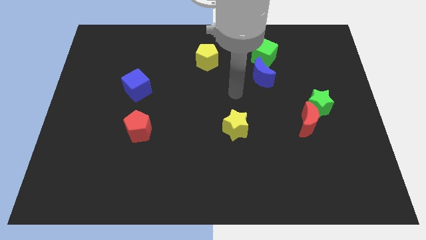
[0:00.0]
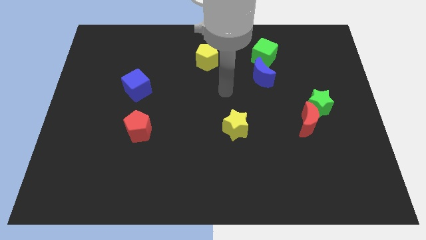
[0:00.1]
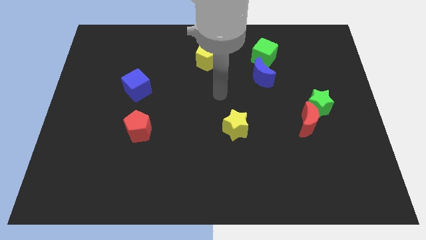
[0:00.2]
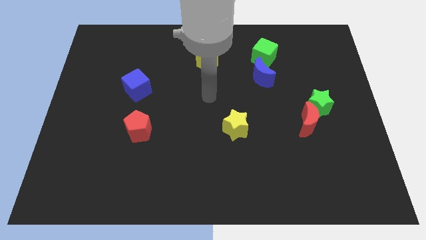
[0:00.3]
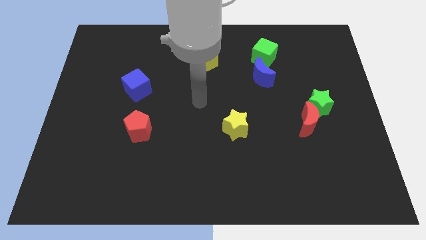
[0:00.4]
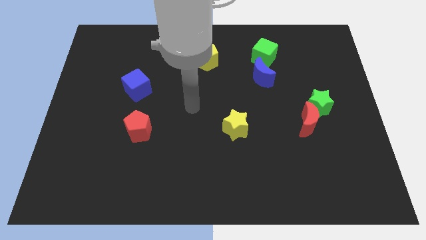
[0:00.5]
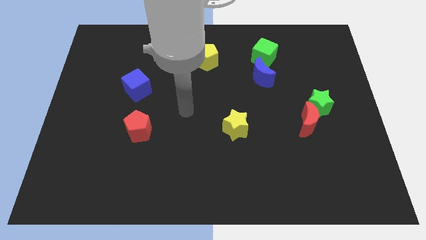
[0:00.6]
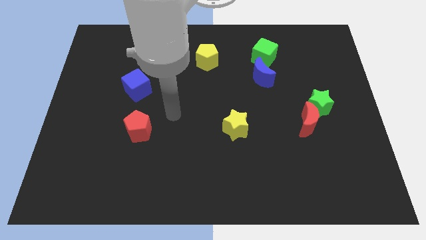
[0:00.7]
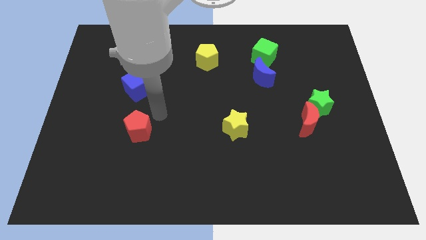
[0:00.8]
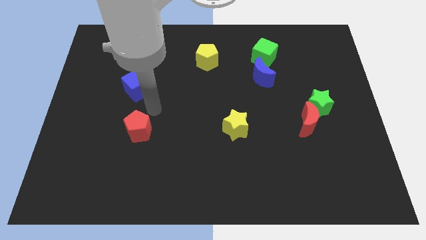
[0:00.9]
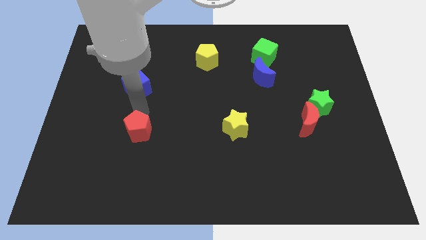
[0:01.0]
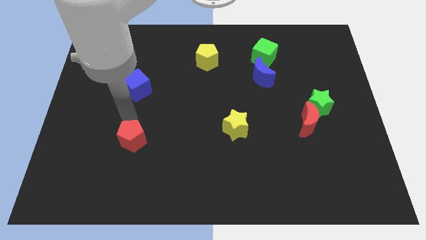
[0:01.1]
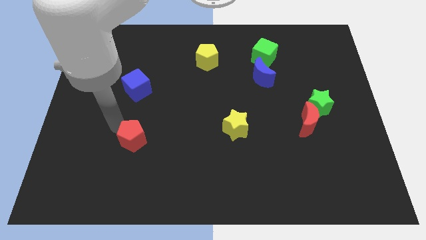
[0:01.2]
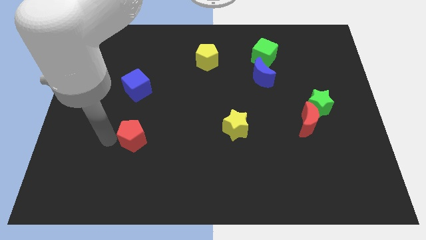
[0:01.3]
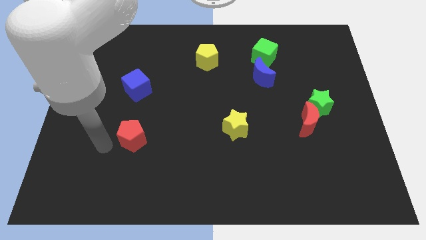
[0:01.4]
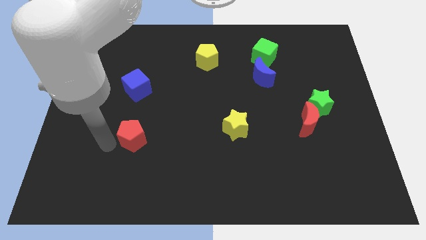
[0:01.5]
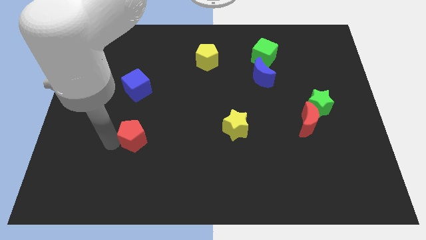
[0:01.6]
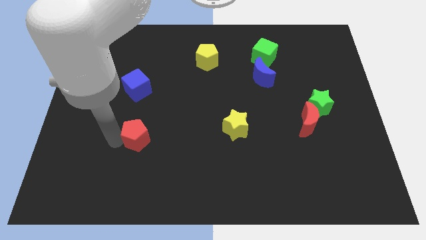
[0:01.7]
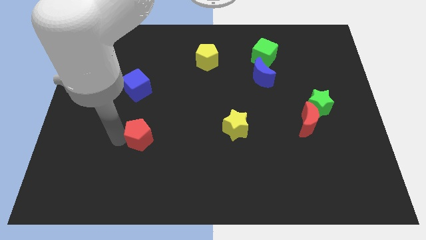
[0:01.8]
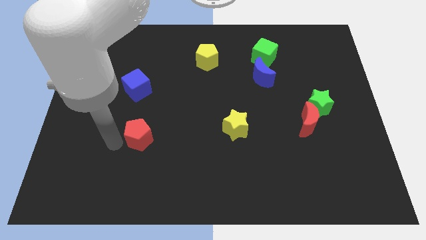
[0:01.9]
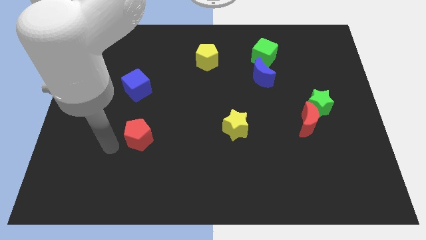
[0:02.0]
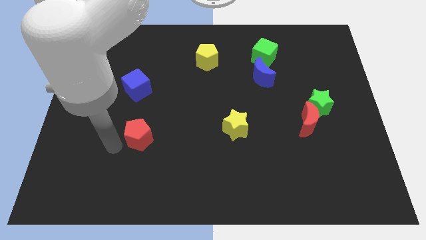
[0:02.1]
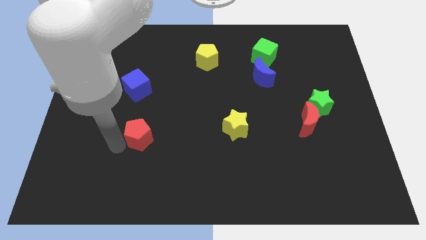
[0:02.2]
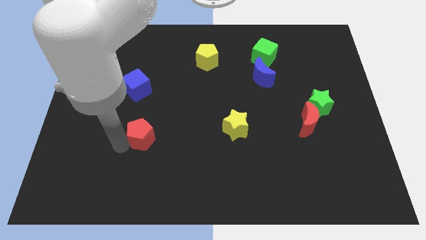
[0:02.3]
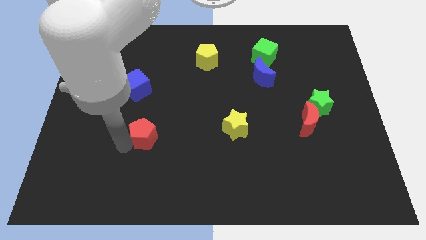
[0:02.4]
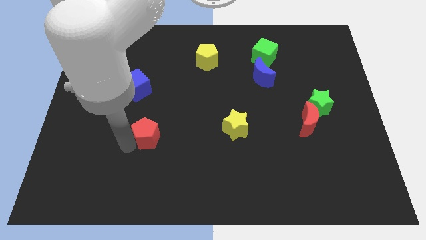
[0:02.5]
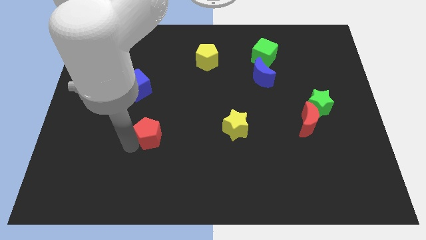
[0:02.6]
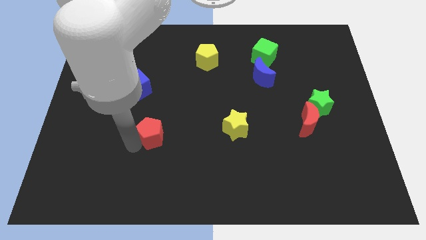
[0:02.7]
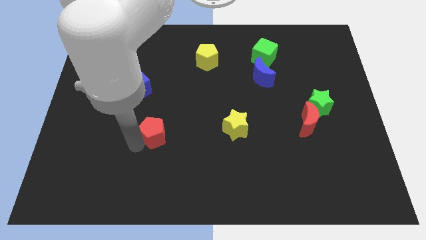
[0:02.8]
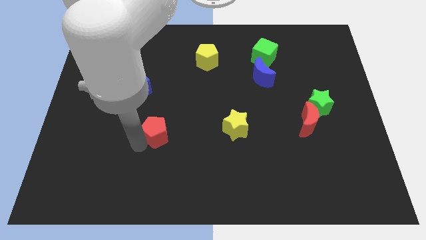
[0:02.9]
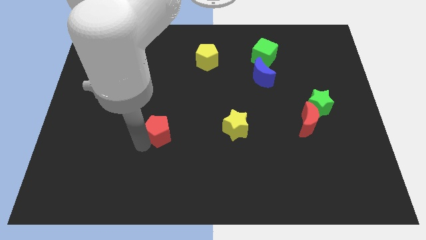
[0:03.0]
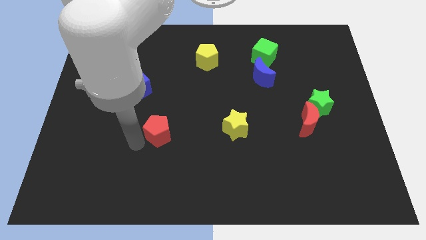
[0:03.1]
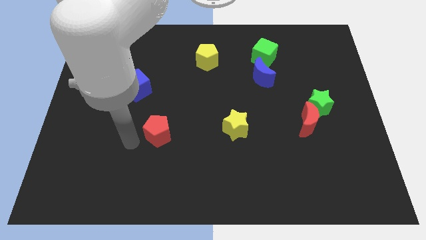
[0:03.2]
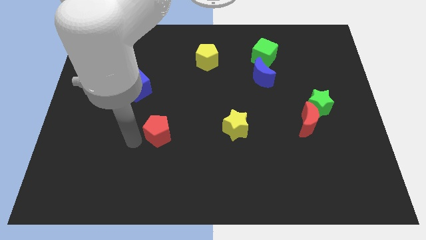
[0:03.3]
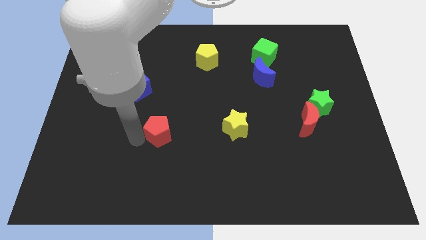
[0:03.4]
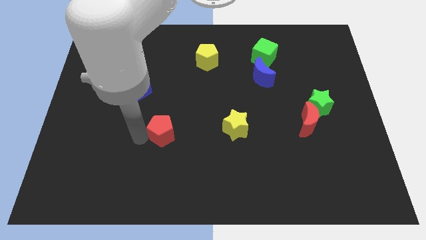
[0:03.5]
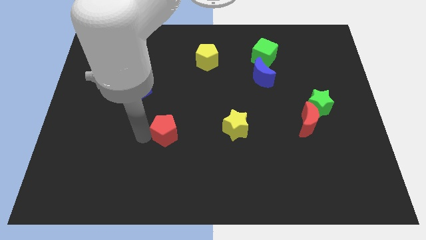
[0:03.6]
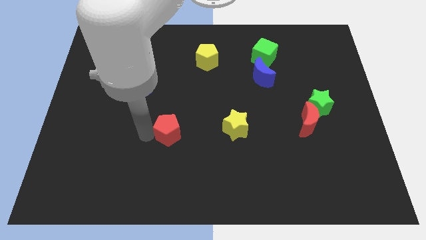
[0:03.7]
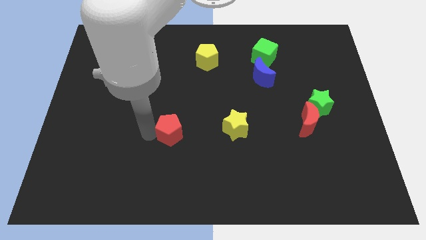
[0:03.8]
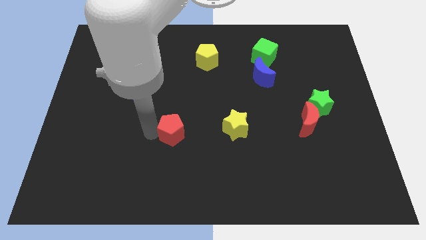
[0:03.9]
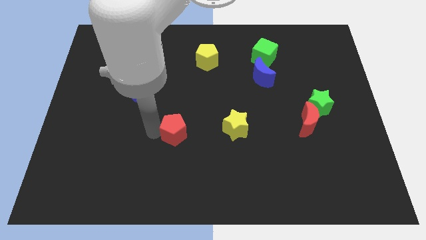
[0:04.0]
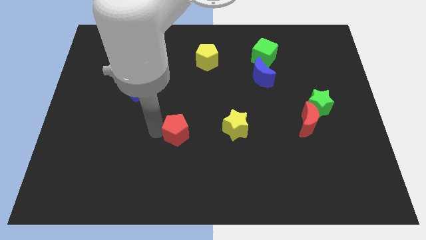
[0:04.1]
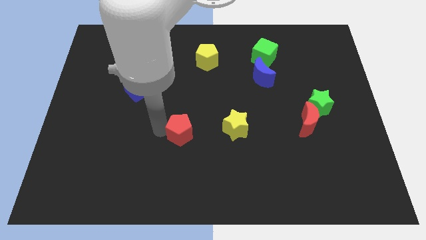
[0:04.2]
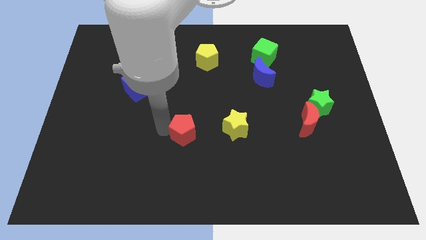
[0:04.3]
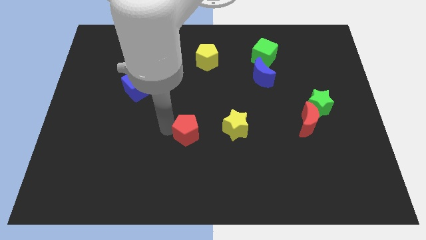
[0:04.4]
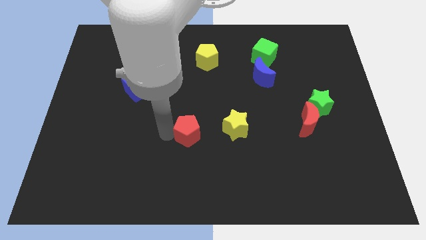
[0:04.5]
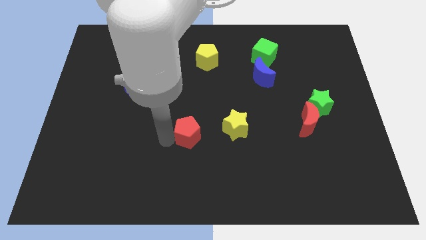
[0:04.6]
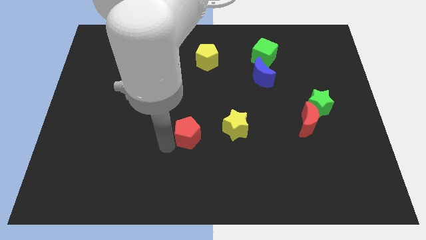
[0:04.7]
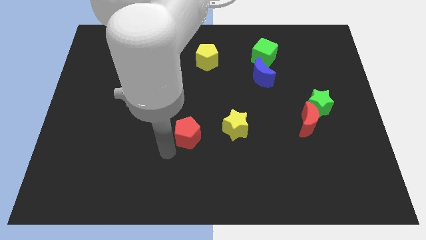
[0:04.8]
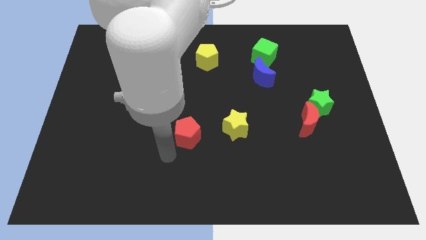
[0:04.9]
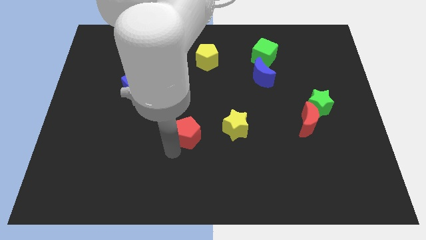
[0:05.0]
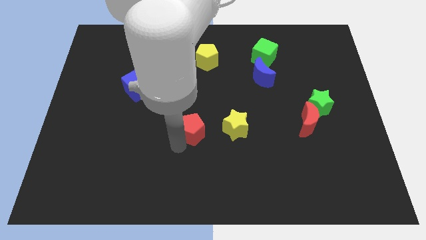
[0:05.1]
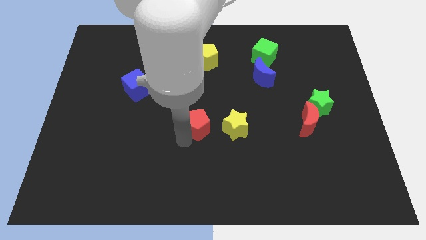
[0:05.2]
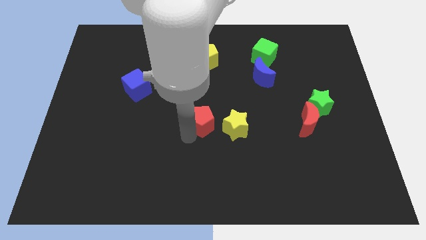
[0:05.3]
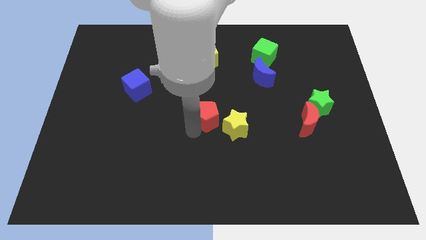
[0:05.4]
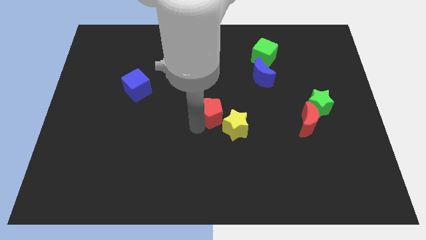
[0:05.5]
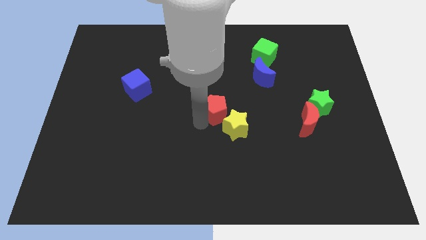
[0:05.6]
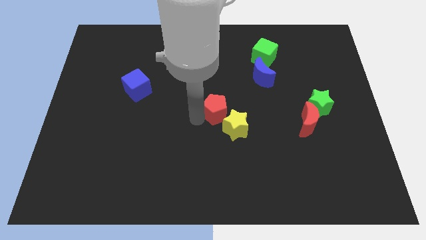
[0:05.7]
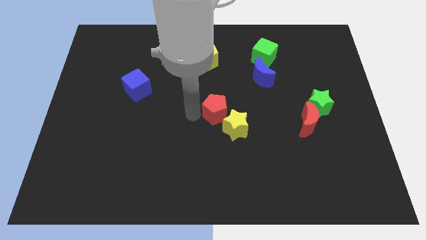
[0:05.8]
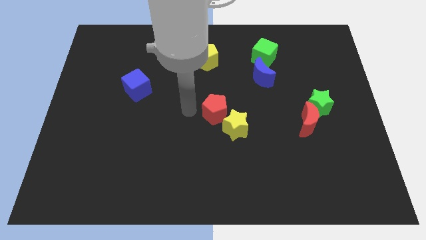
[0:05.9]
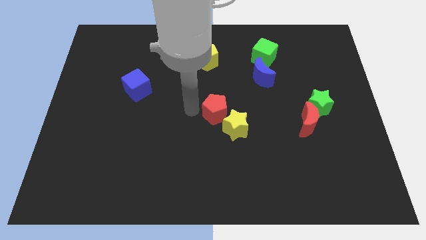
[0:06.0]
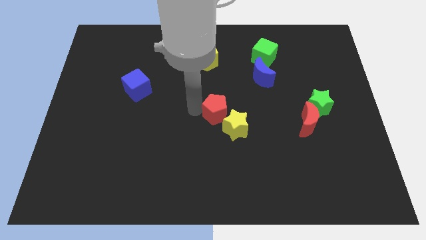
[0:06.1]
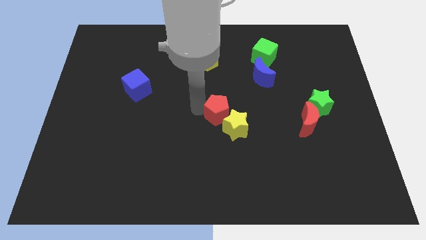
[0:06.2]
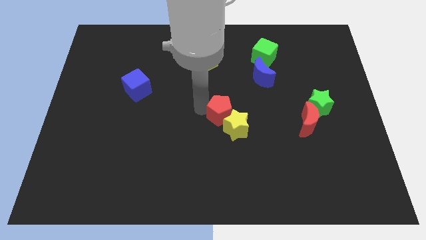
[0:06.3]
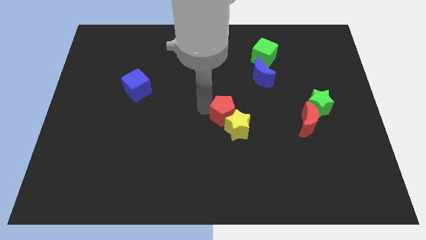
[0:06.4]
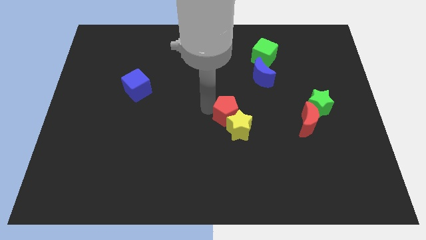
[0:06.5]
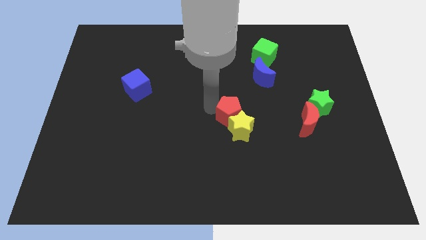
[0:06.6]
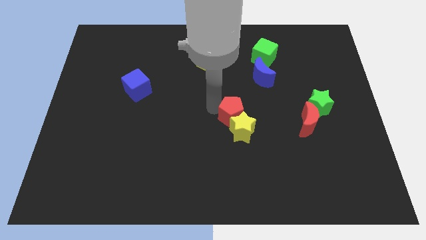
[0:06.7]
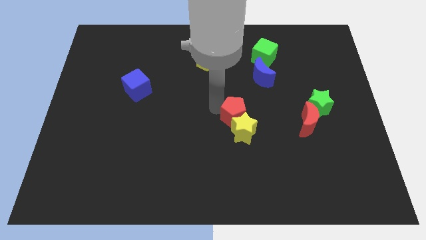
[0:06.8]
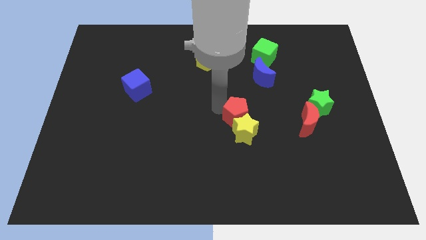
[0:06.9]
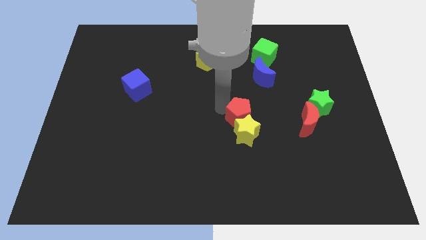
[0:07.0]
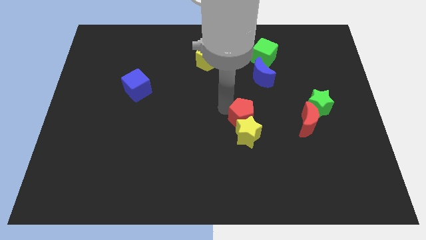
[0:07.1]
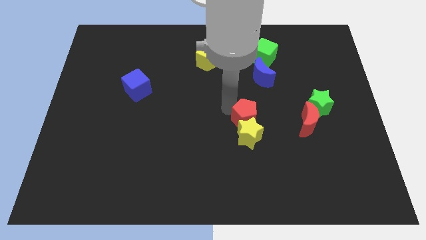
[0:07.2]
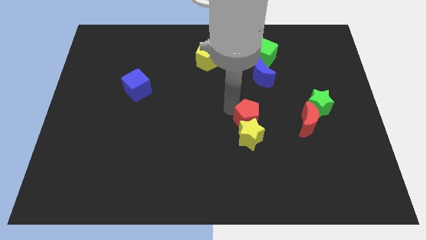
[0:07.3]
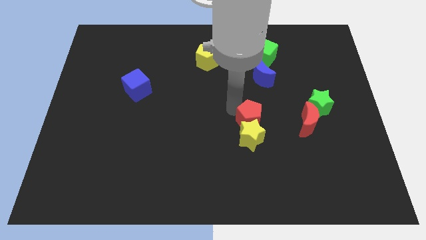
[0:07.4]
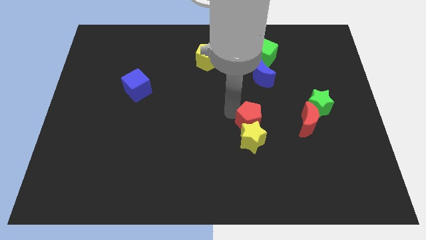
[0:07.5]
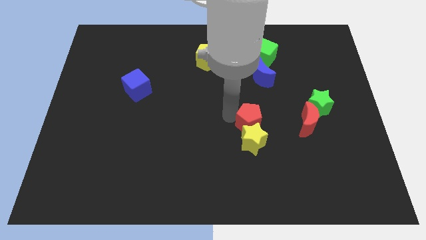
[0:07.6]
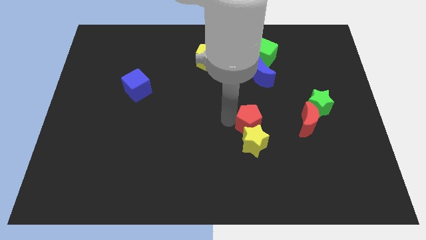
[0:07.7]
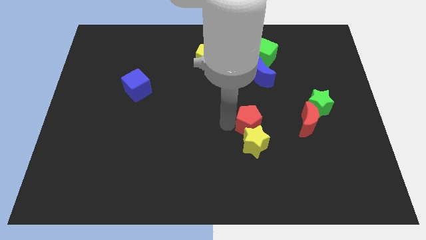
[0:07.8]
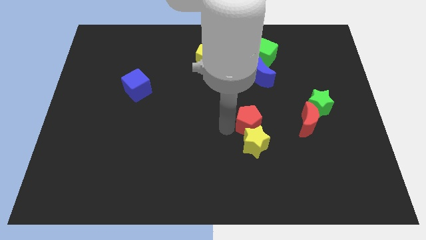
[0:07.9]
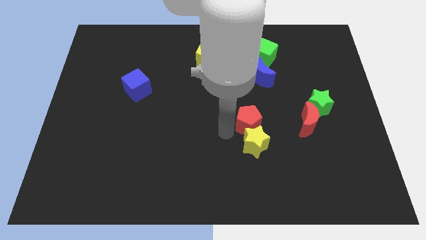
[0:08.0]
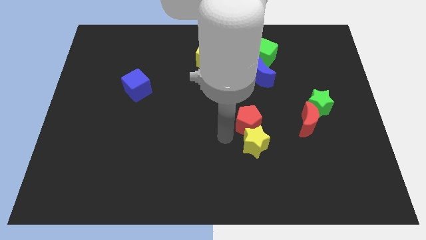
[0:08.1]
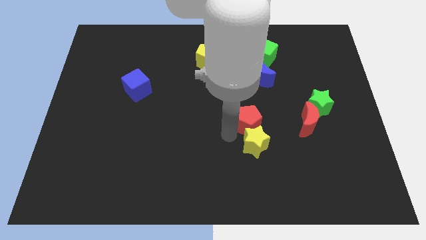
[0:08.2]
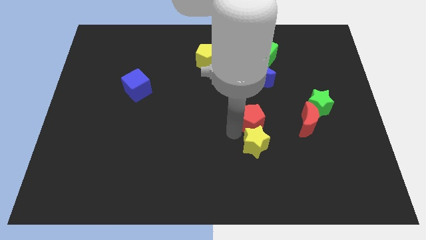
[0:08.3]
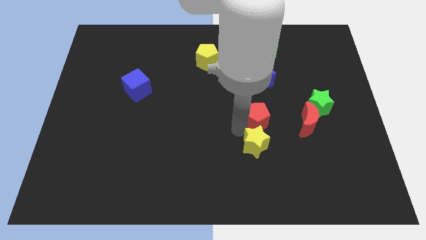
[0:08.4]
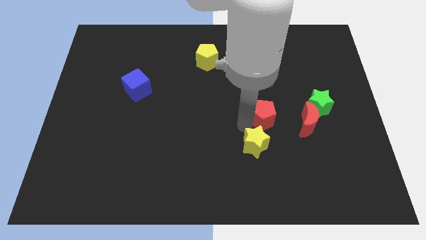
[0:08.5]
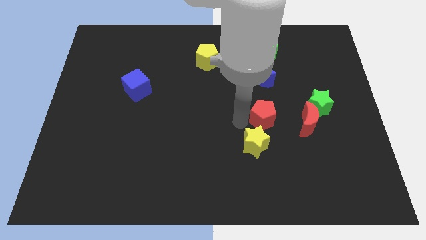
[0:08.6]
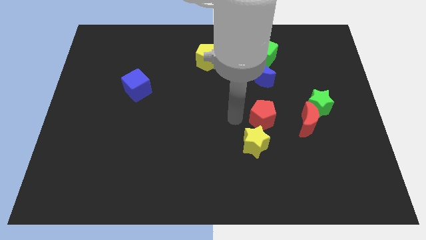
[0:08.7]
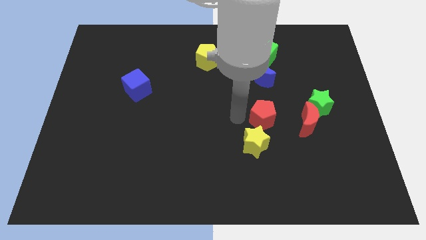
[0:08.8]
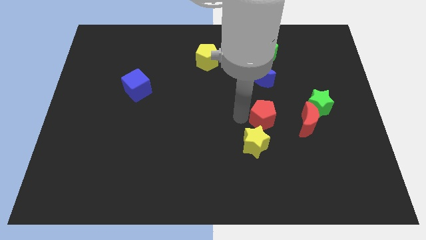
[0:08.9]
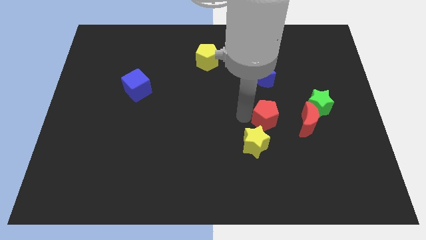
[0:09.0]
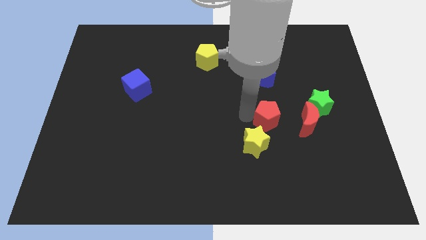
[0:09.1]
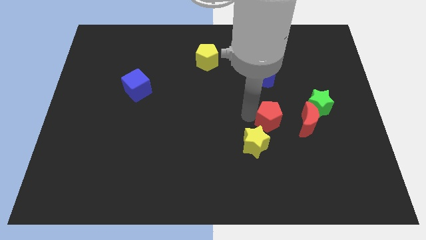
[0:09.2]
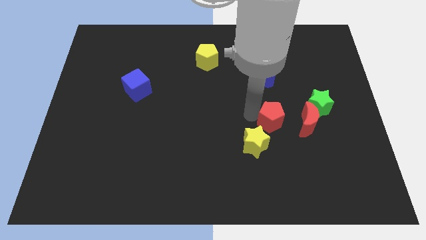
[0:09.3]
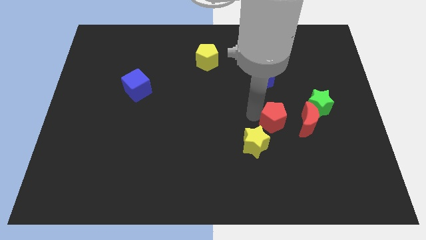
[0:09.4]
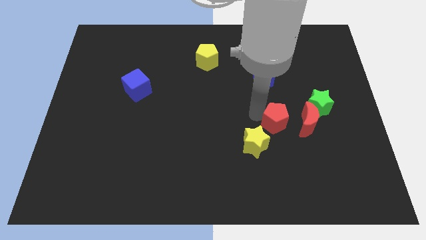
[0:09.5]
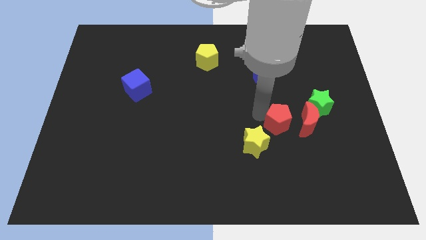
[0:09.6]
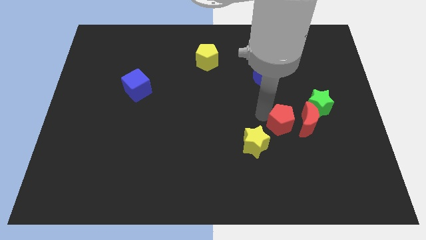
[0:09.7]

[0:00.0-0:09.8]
put the red pentagon next to the red moon
